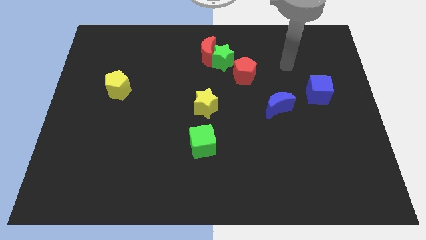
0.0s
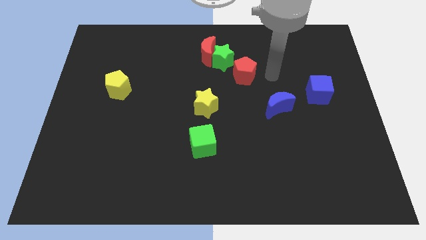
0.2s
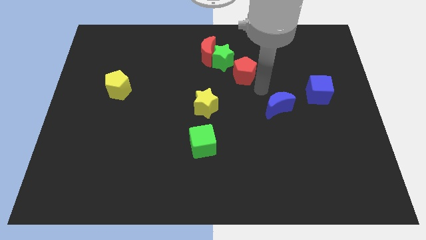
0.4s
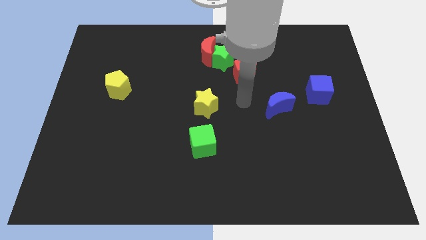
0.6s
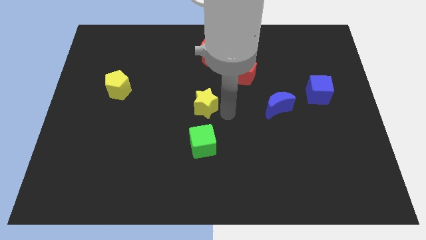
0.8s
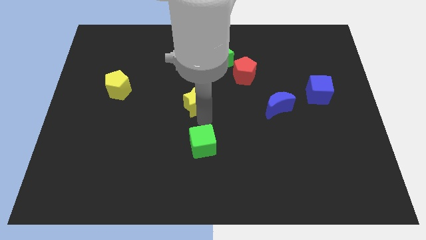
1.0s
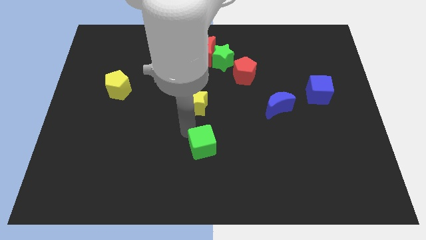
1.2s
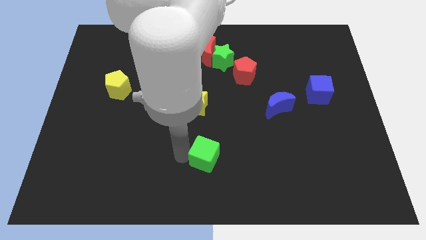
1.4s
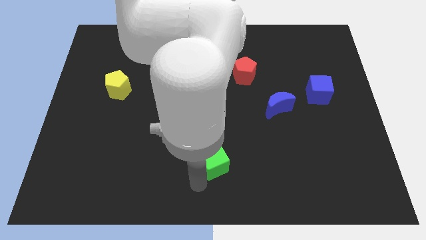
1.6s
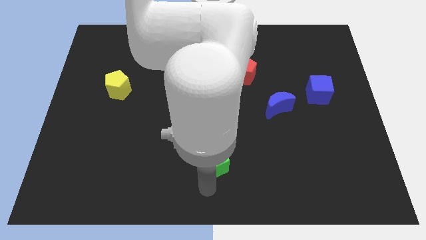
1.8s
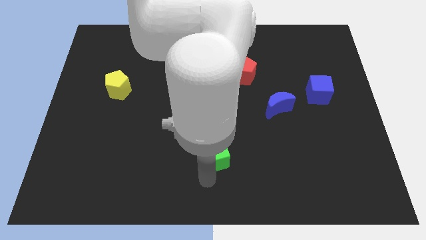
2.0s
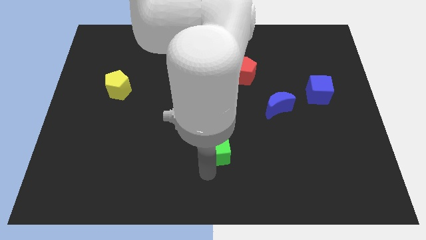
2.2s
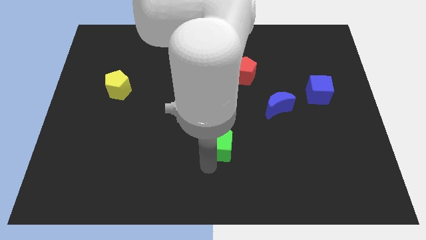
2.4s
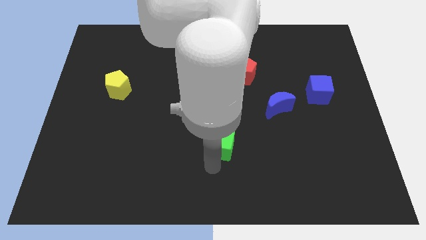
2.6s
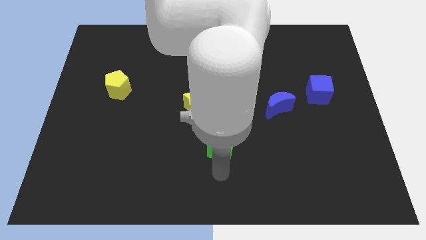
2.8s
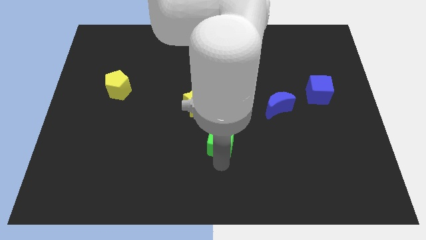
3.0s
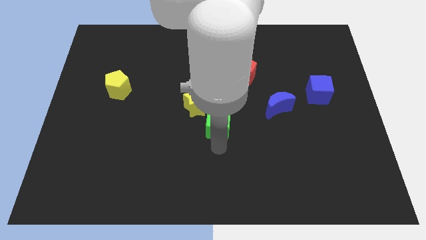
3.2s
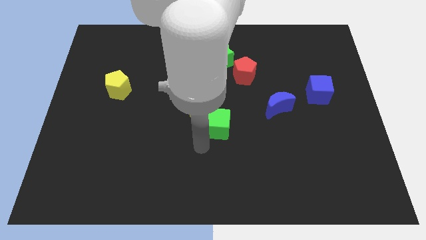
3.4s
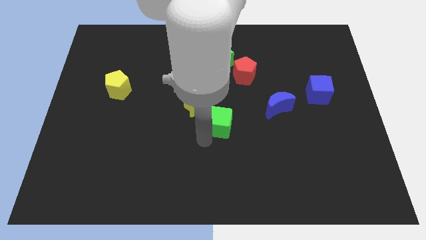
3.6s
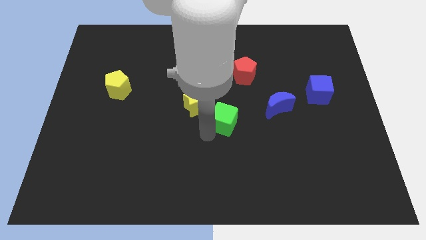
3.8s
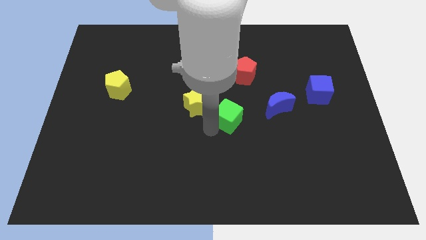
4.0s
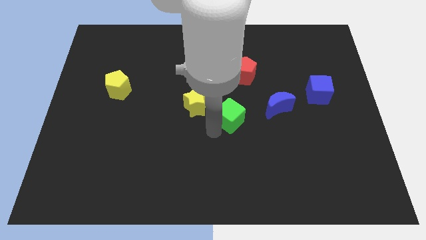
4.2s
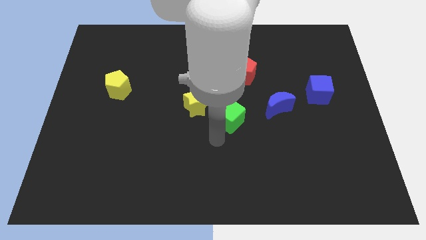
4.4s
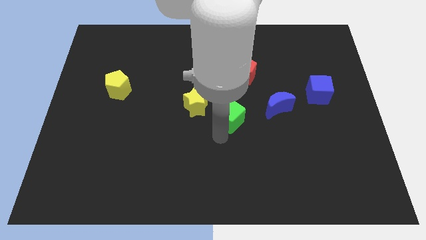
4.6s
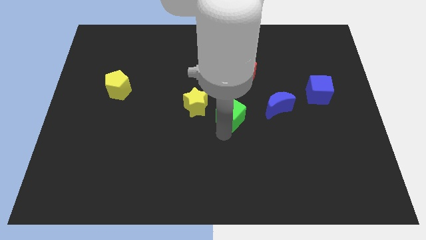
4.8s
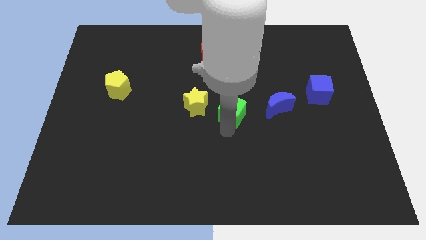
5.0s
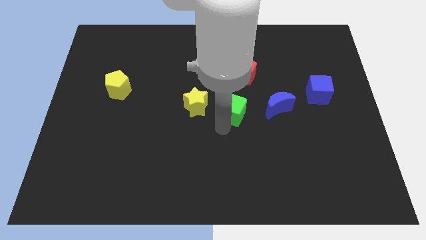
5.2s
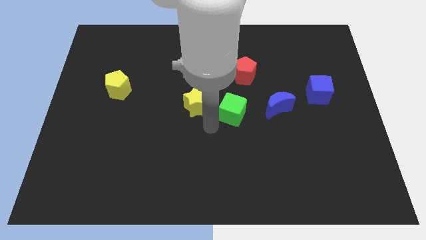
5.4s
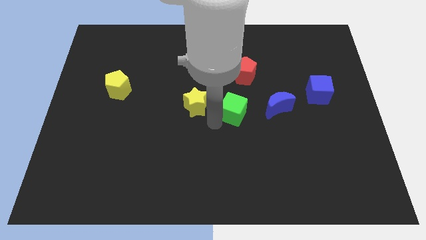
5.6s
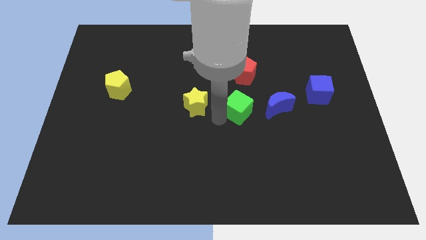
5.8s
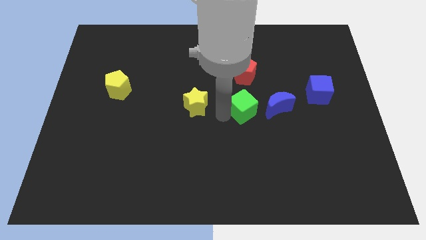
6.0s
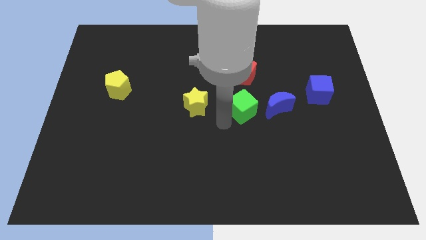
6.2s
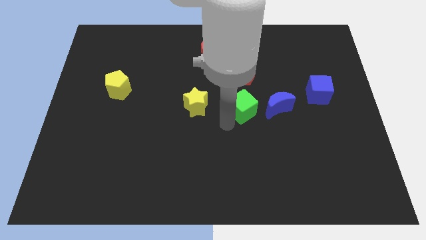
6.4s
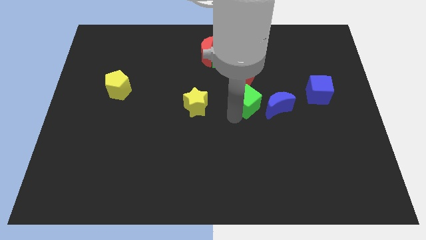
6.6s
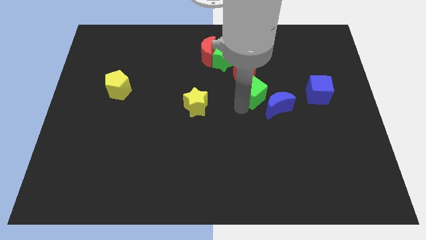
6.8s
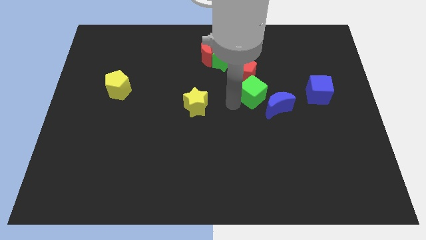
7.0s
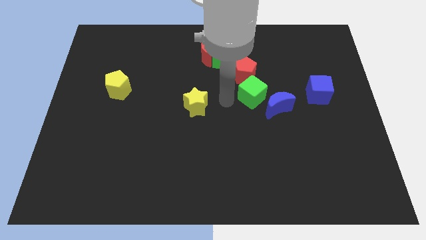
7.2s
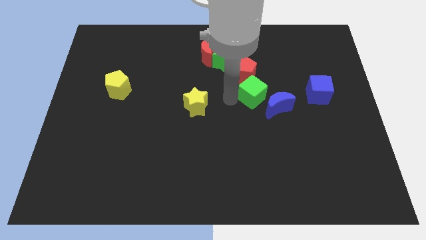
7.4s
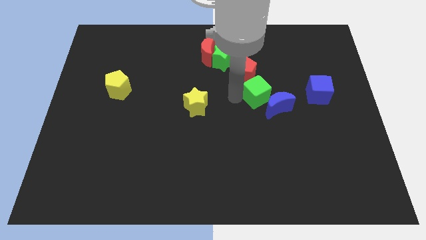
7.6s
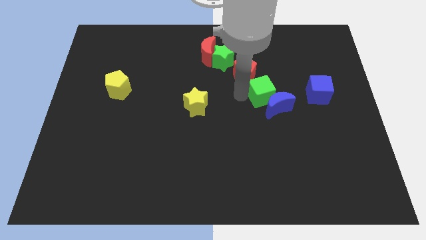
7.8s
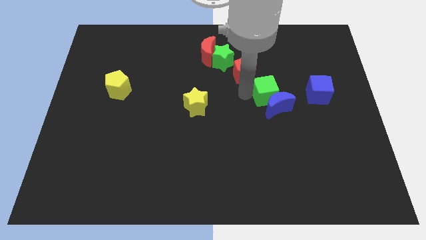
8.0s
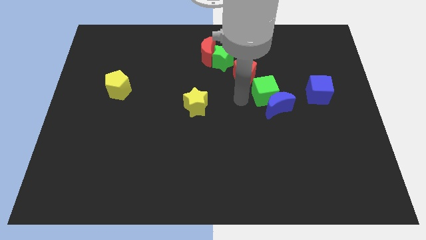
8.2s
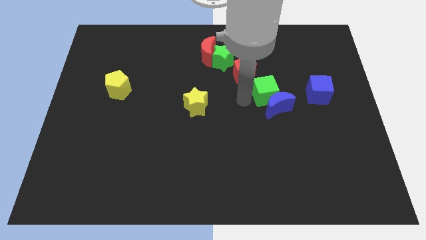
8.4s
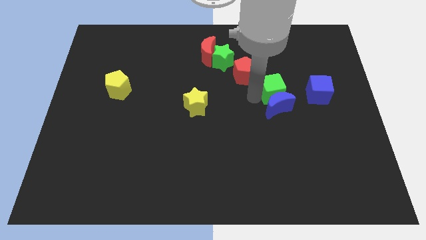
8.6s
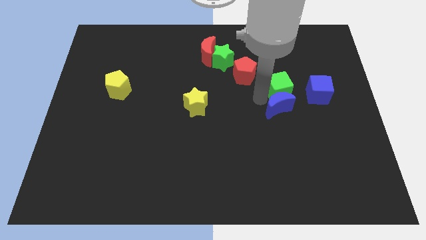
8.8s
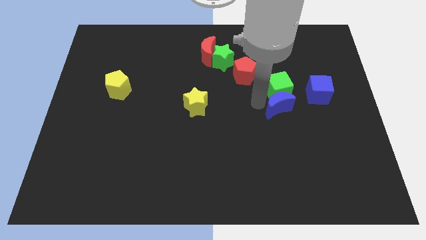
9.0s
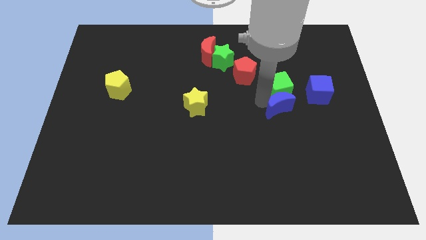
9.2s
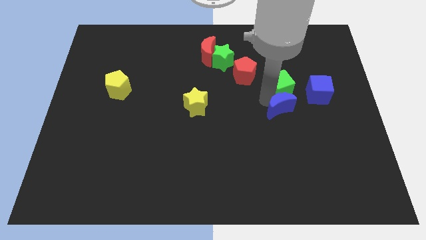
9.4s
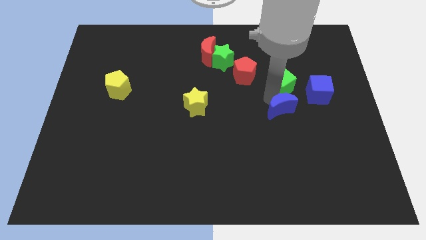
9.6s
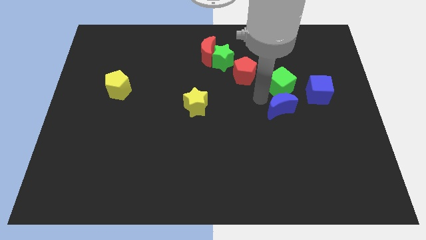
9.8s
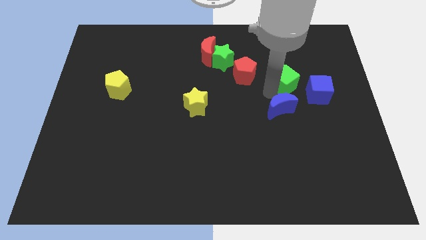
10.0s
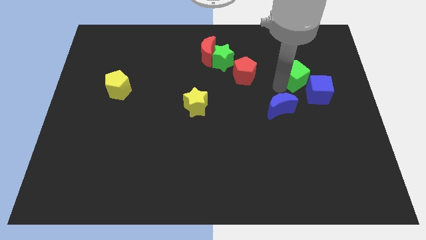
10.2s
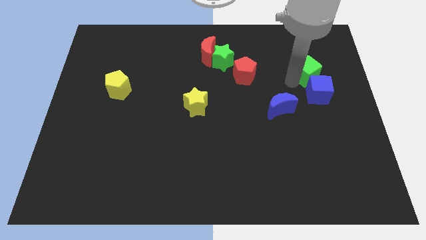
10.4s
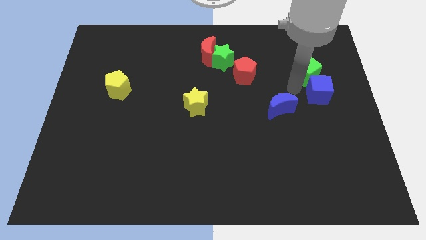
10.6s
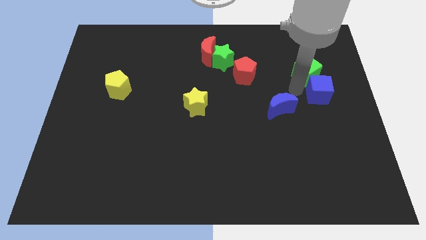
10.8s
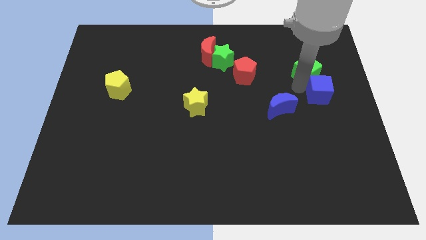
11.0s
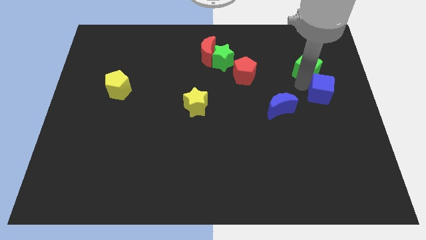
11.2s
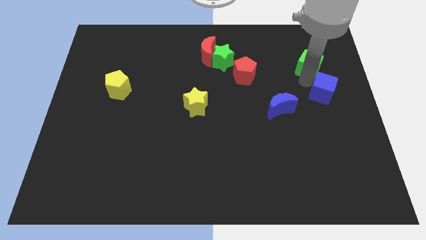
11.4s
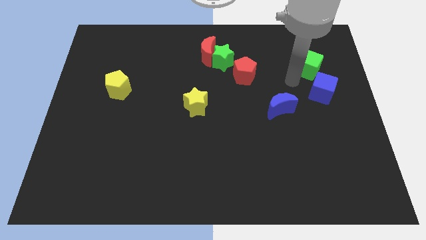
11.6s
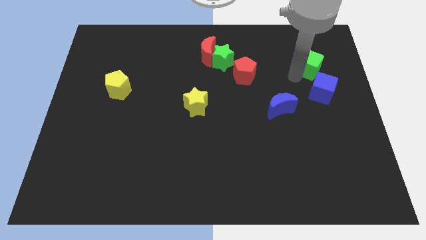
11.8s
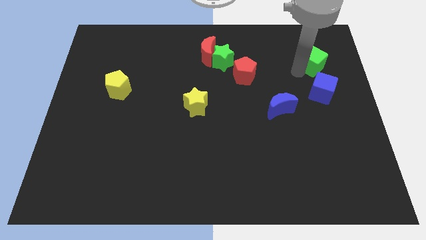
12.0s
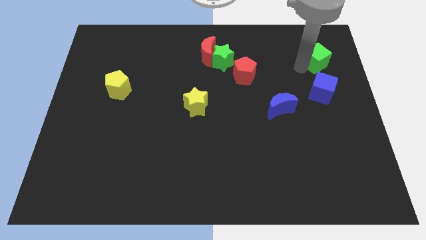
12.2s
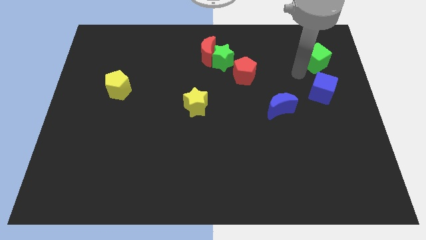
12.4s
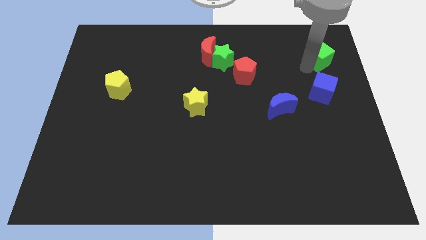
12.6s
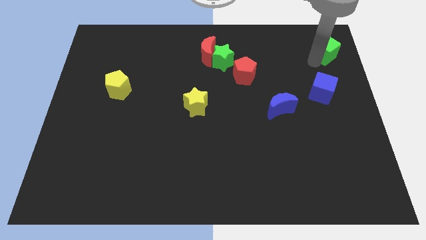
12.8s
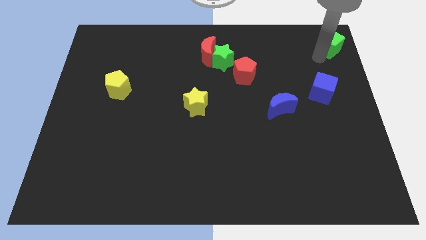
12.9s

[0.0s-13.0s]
move the green cube to the top right

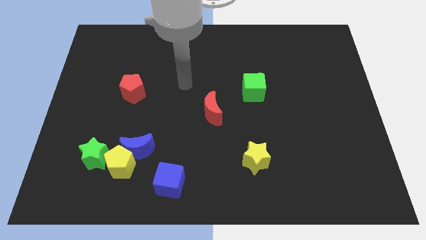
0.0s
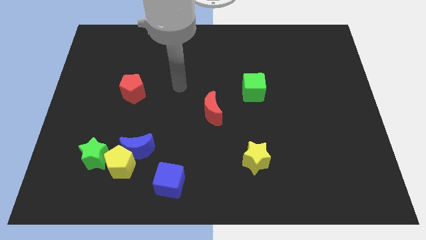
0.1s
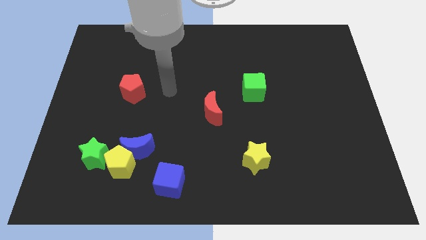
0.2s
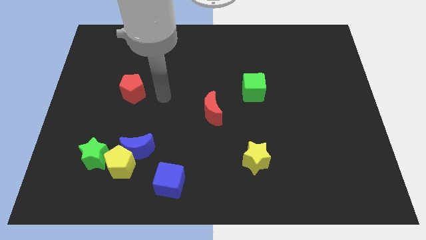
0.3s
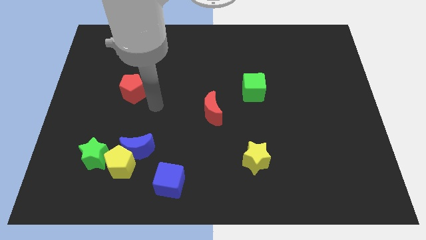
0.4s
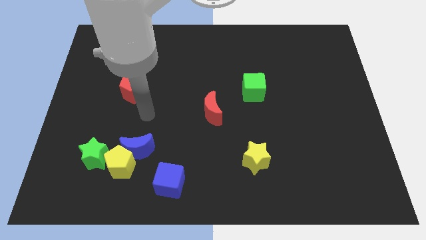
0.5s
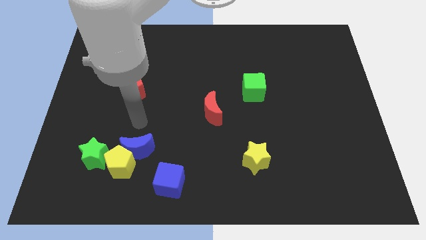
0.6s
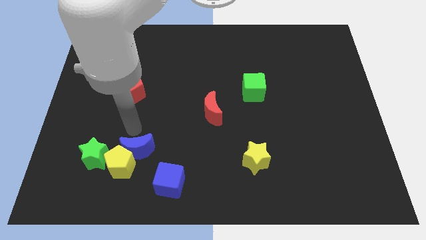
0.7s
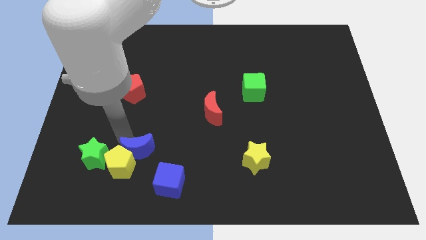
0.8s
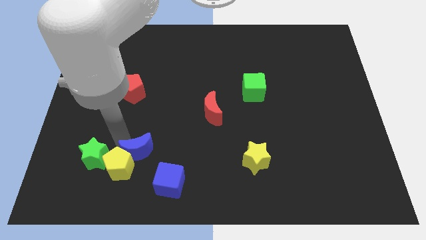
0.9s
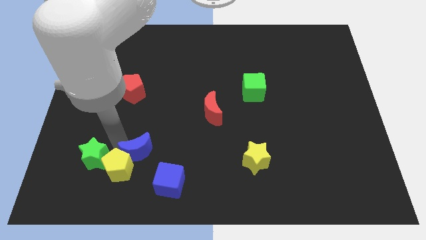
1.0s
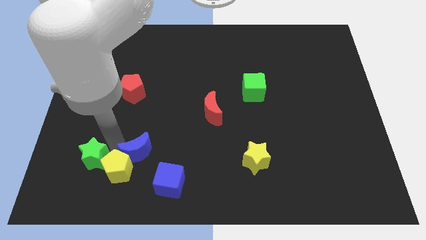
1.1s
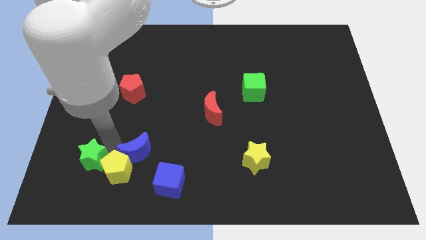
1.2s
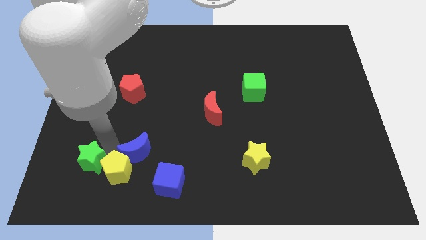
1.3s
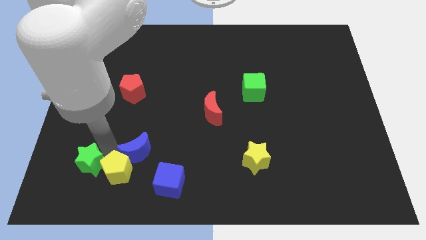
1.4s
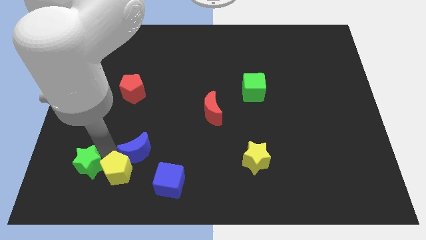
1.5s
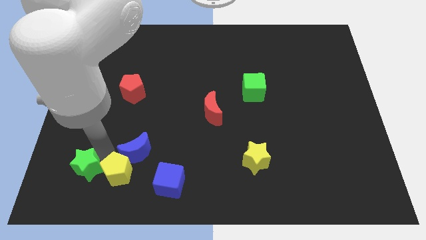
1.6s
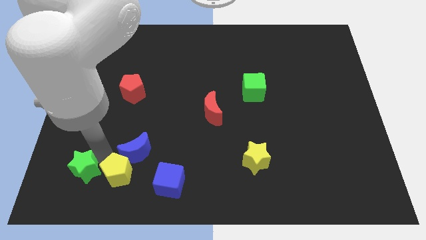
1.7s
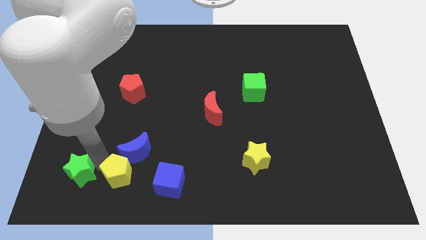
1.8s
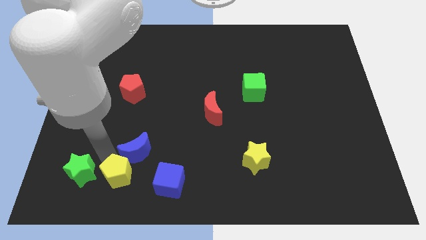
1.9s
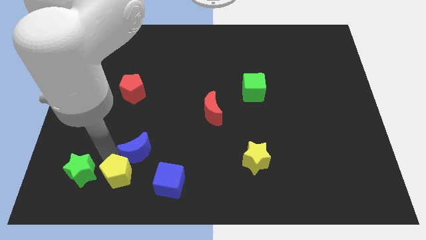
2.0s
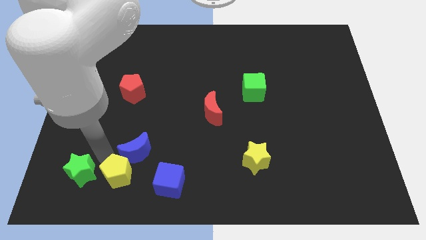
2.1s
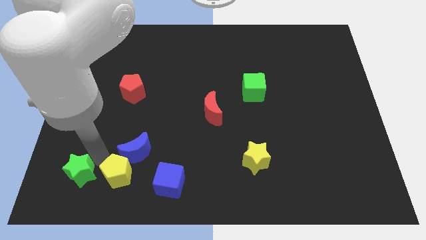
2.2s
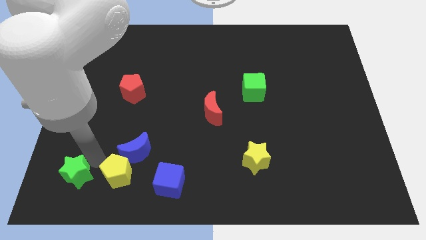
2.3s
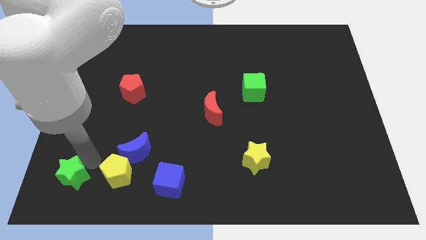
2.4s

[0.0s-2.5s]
slide the green star to the bottom left of the board
